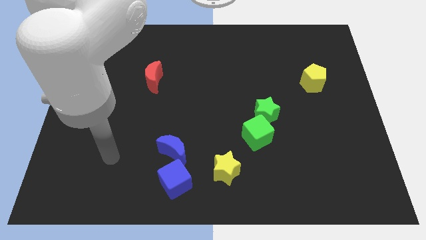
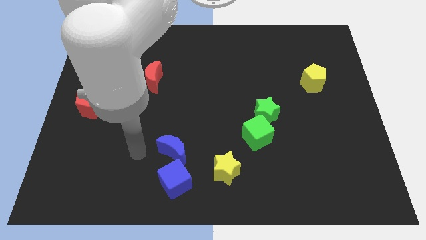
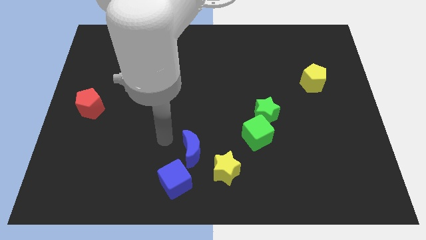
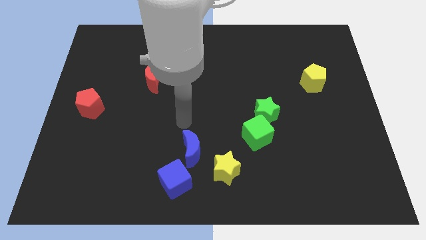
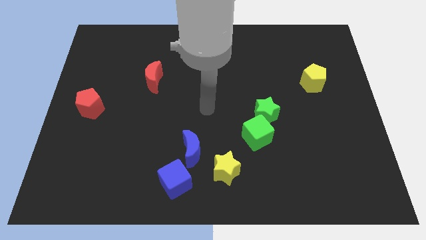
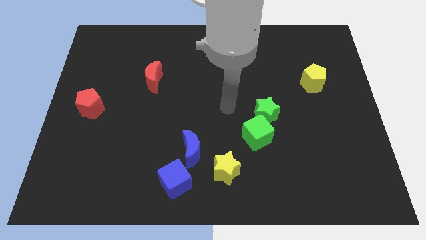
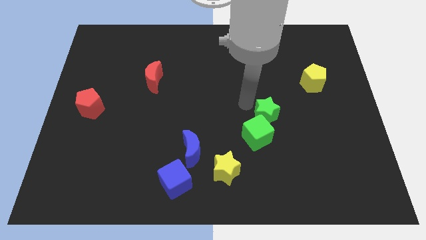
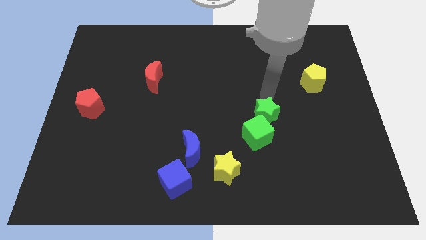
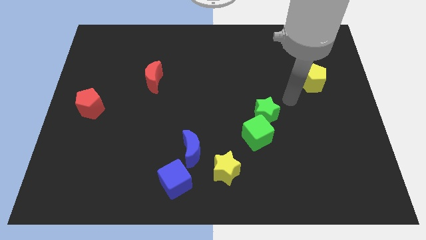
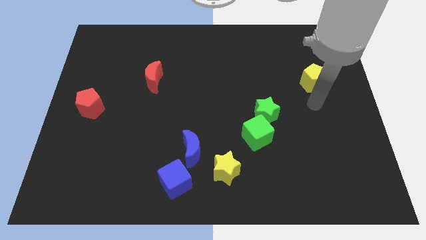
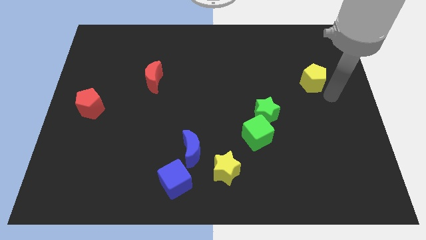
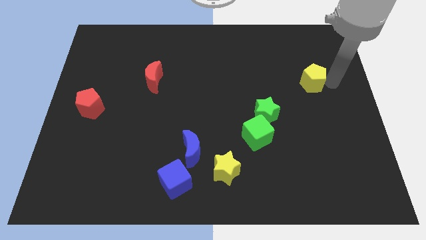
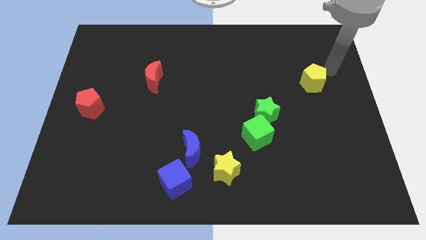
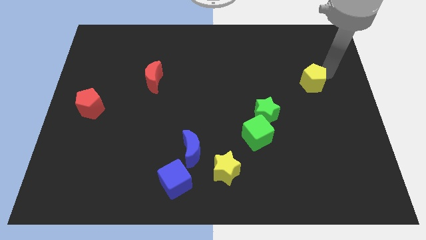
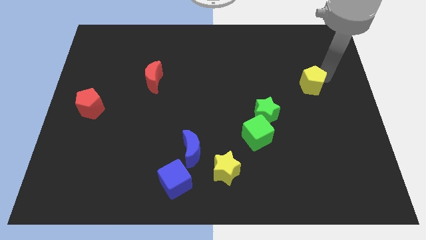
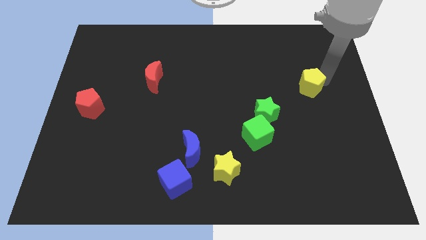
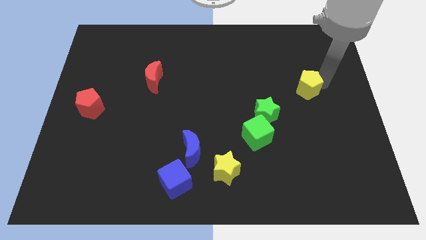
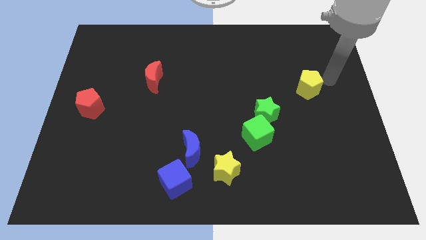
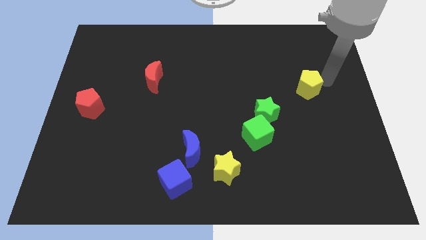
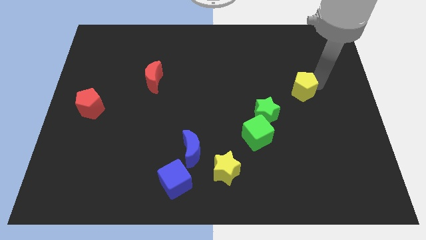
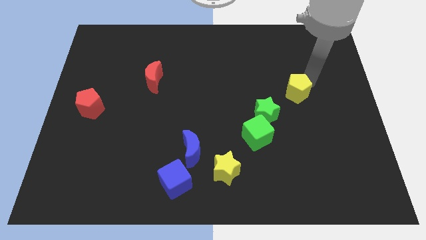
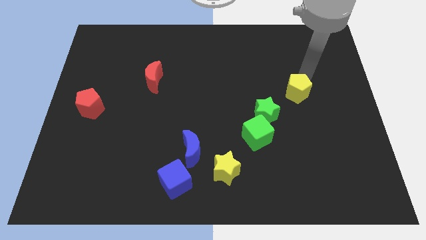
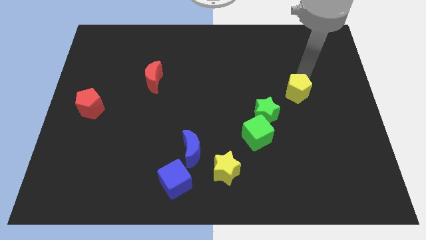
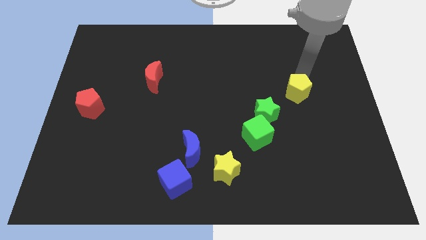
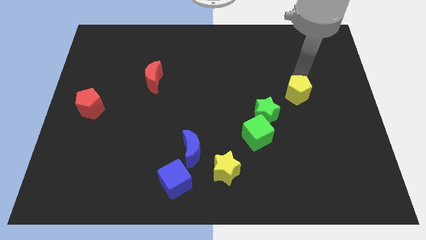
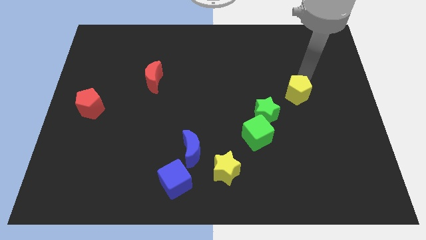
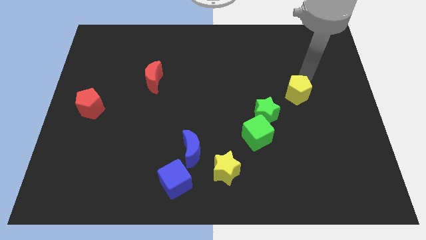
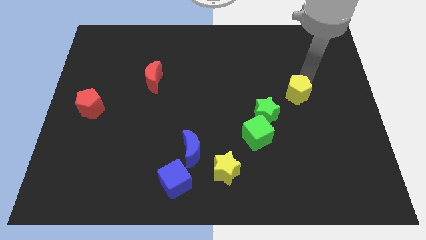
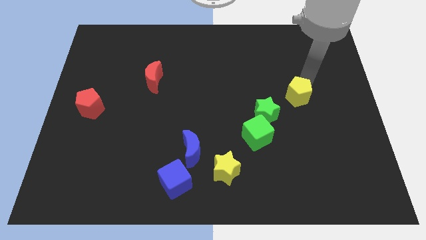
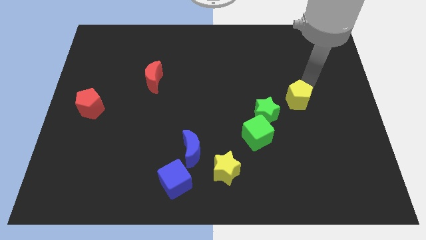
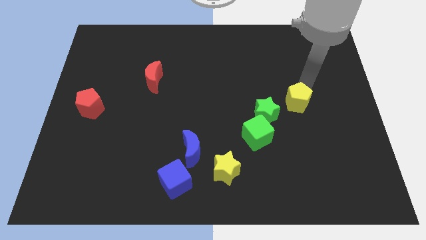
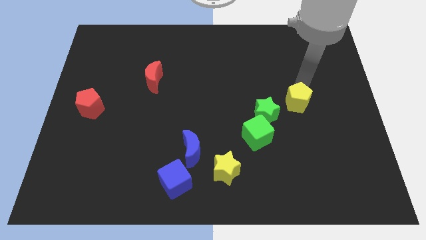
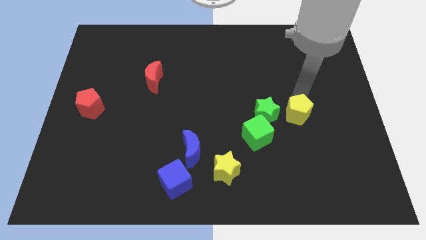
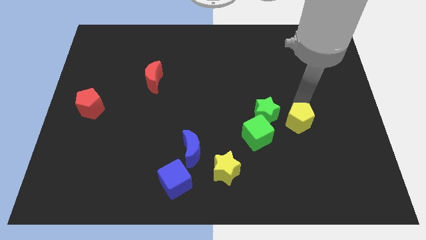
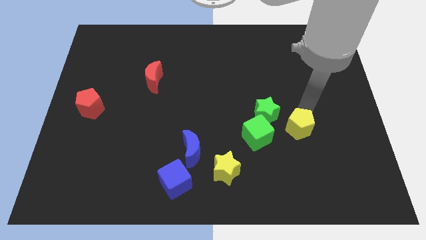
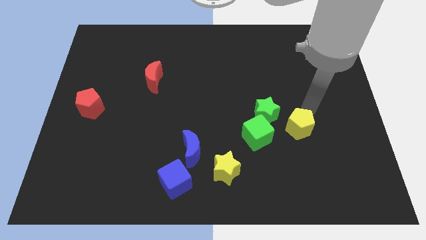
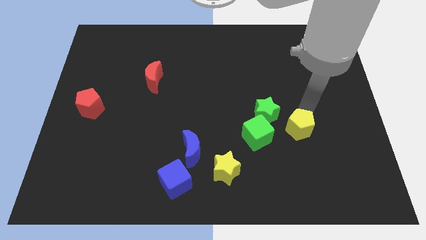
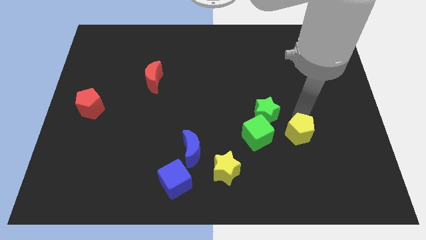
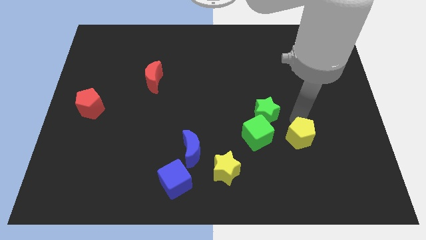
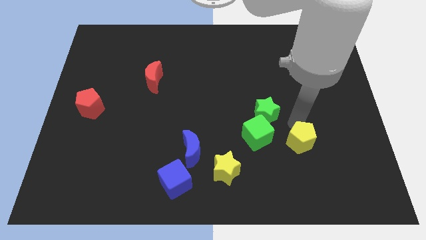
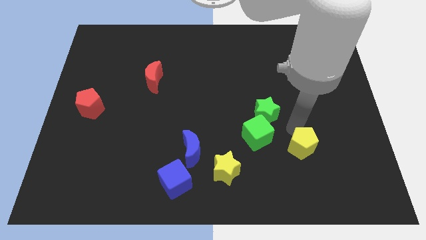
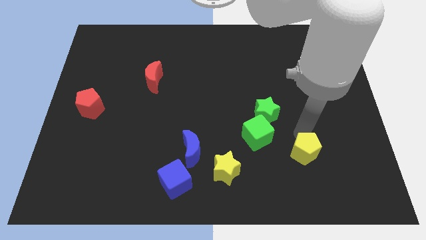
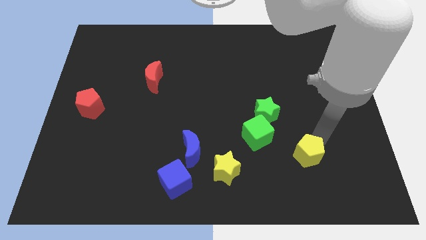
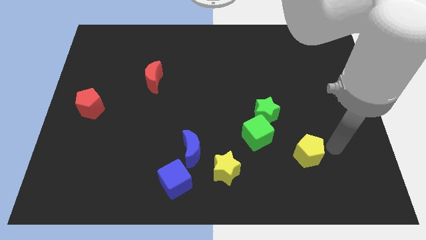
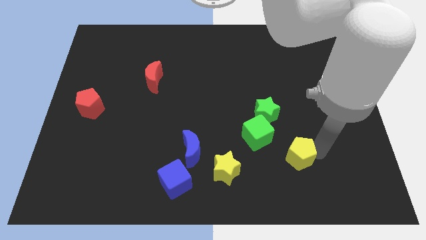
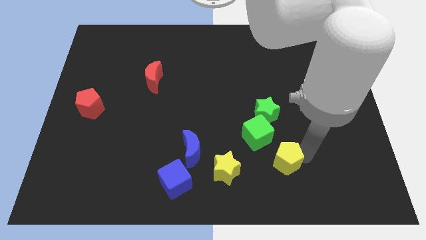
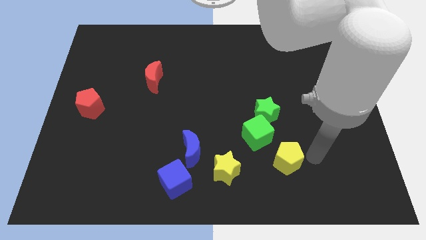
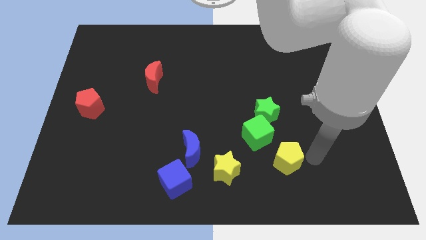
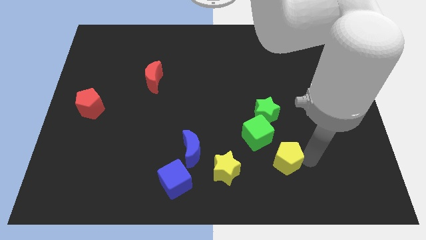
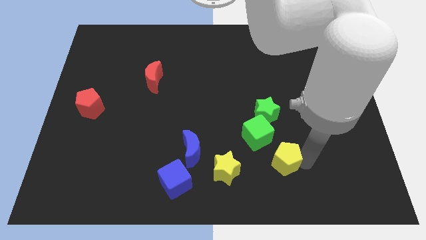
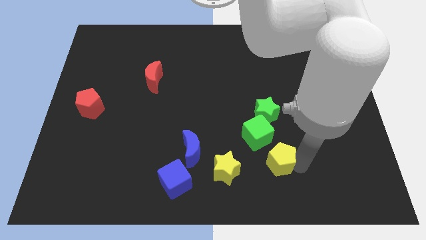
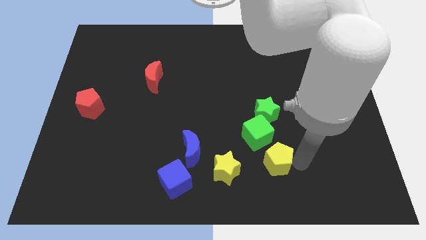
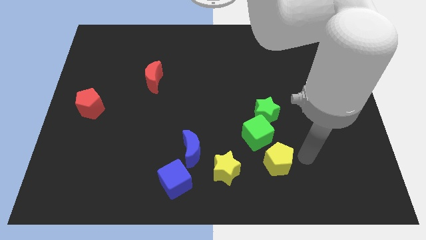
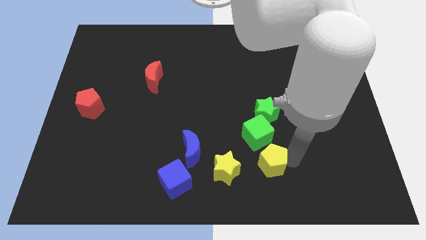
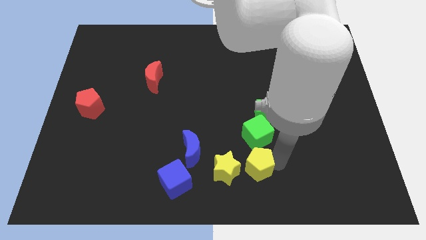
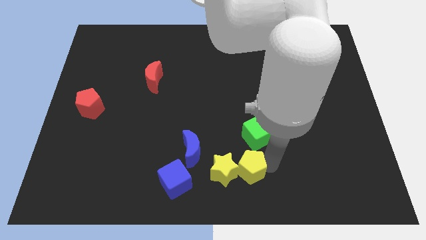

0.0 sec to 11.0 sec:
put the yellow pentagon to the yellow star

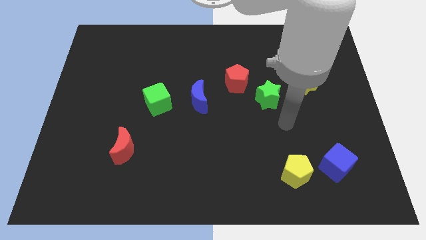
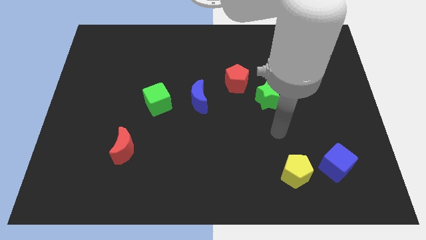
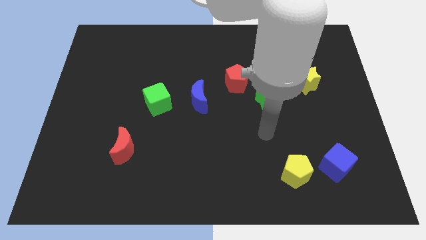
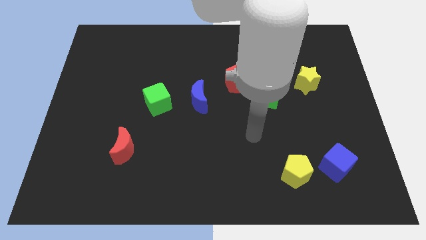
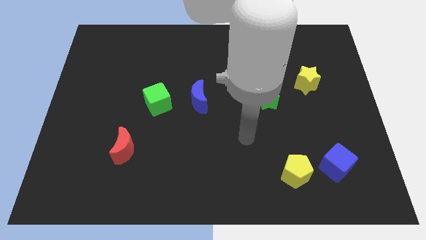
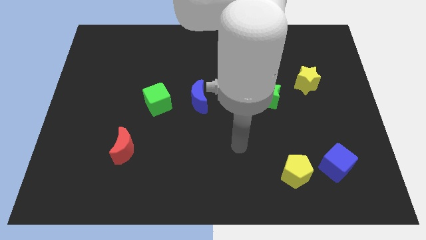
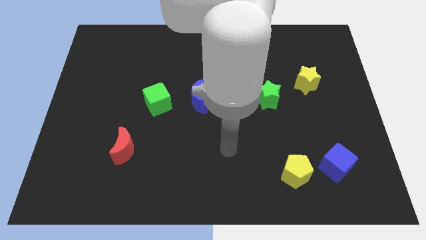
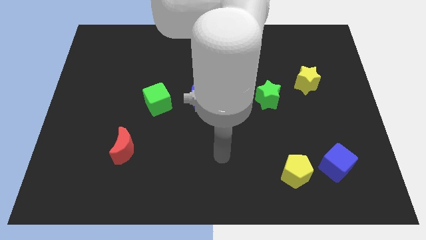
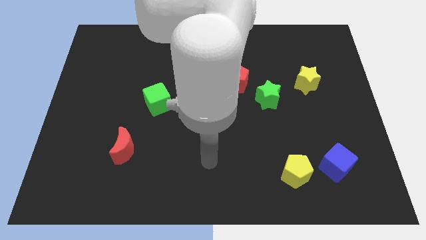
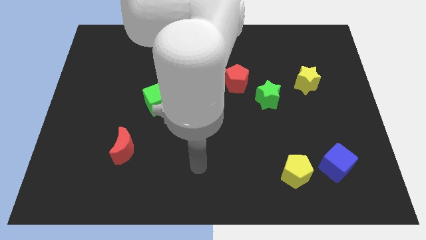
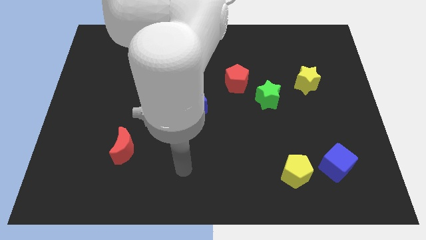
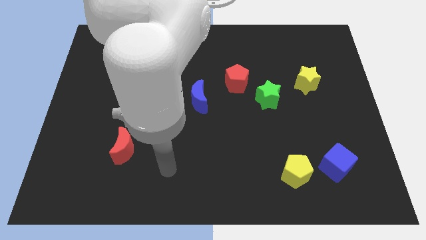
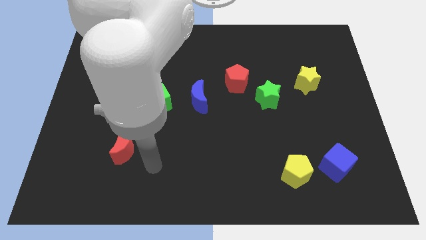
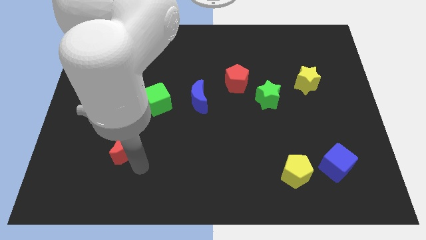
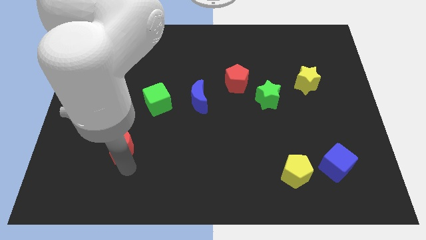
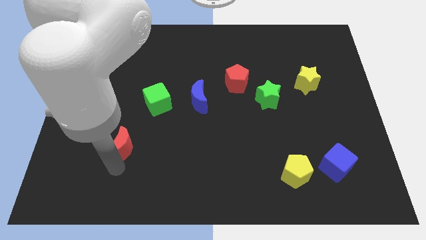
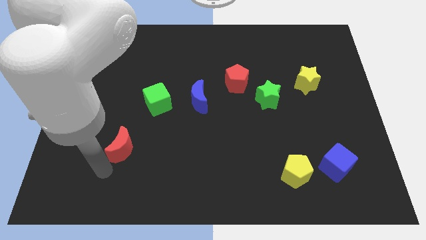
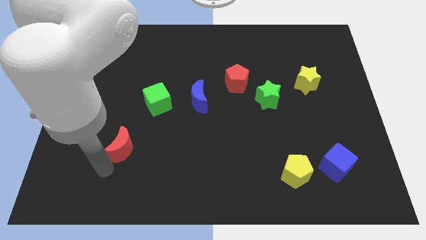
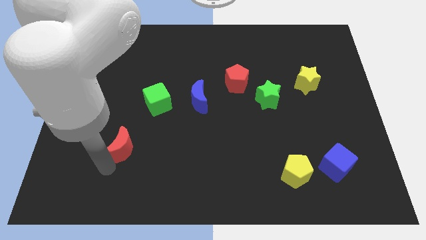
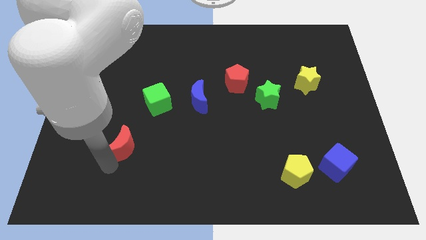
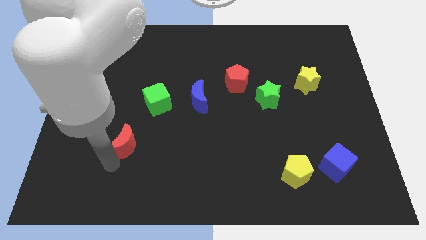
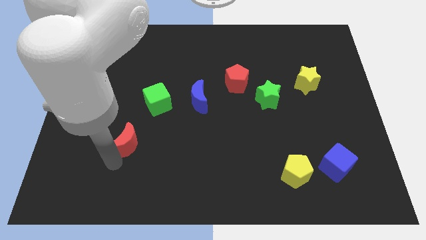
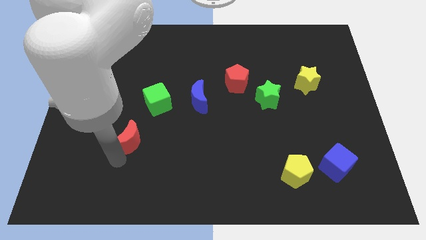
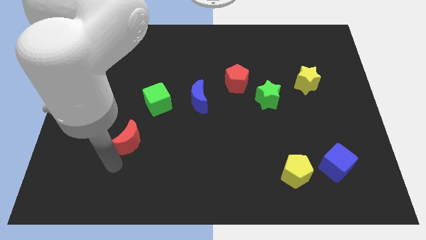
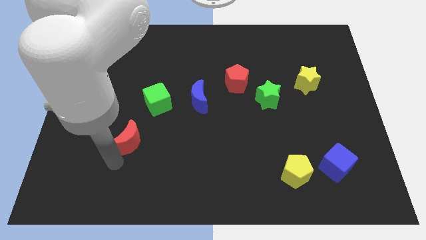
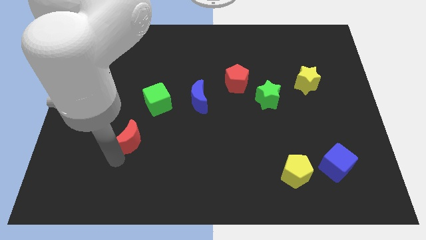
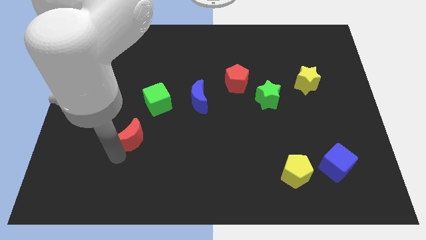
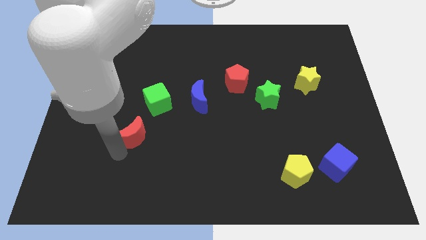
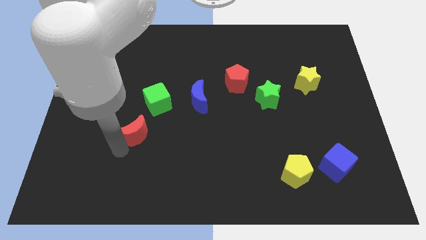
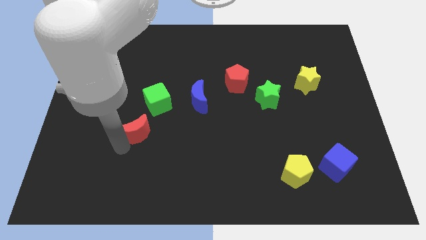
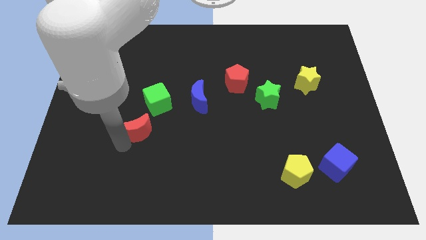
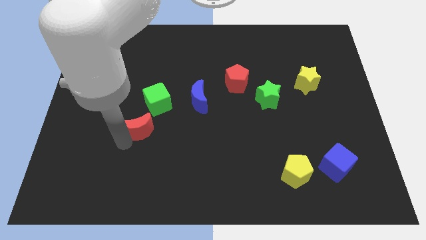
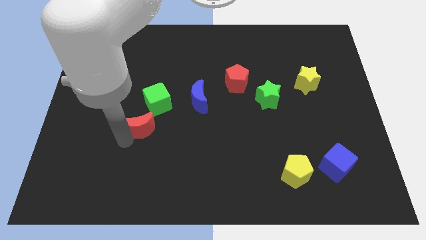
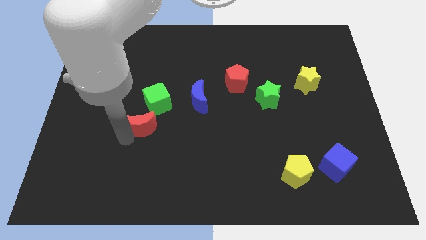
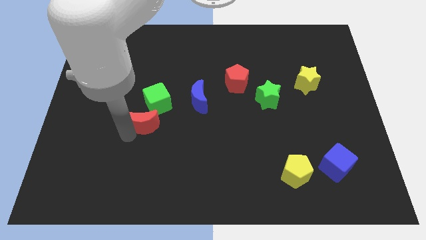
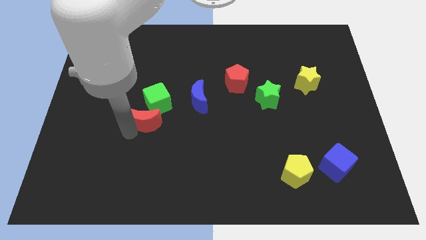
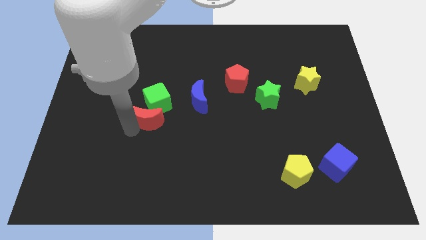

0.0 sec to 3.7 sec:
move the red moon next to the green cube
